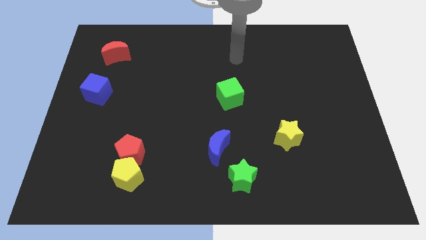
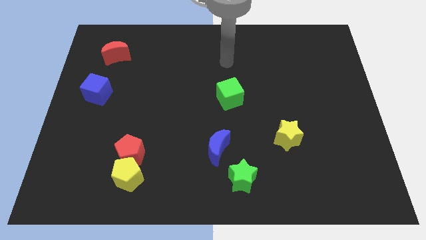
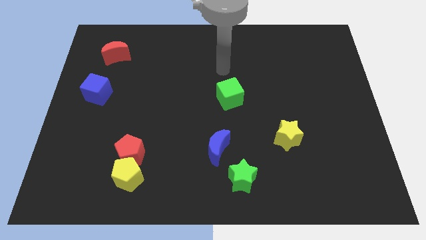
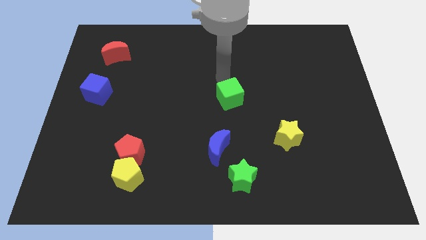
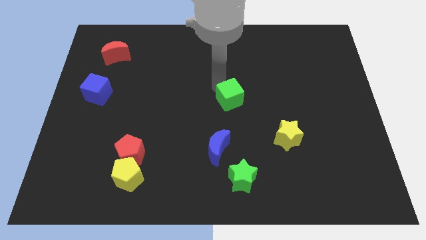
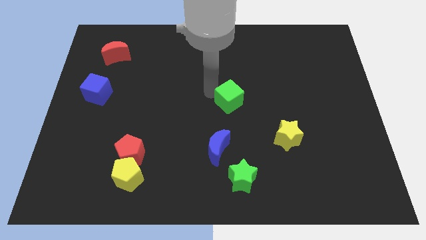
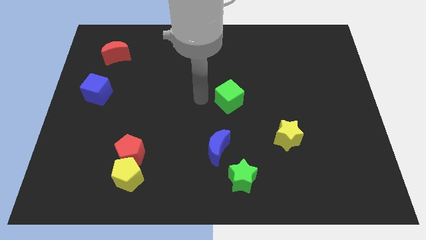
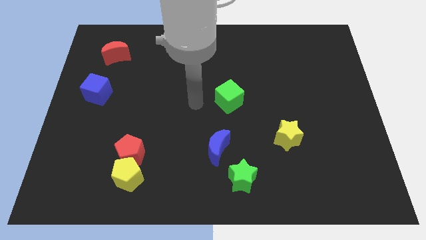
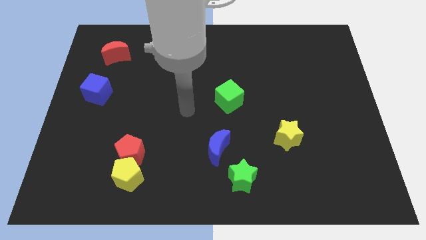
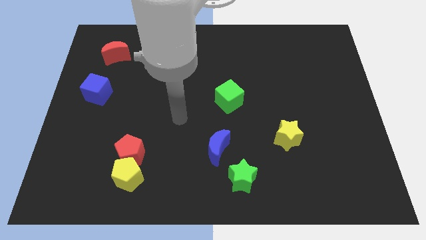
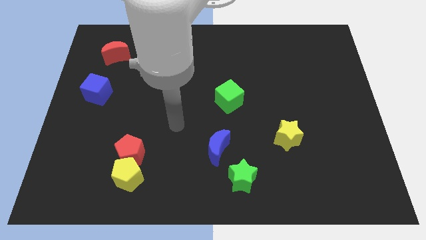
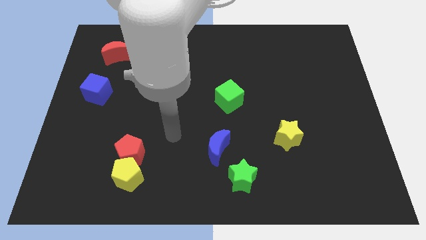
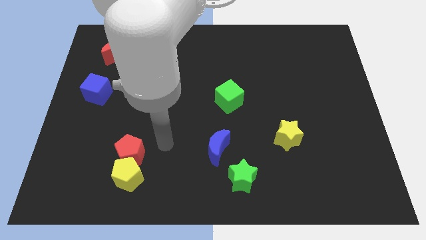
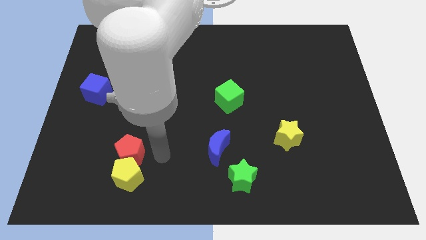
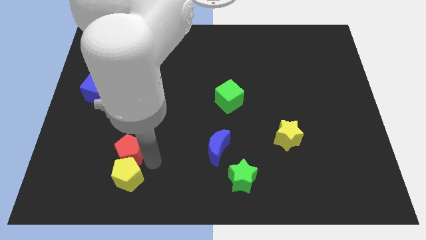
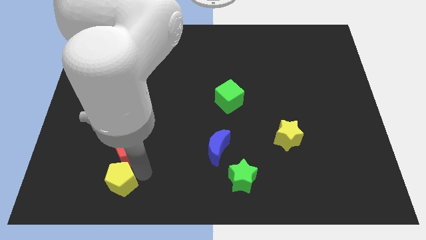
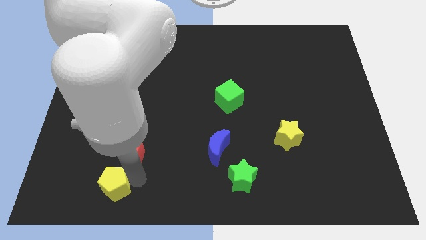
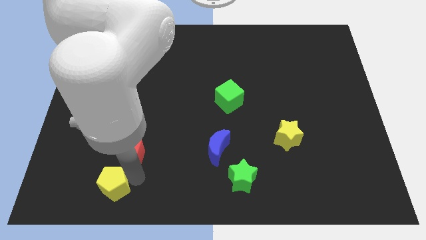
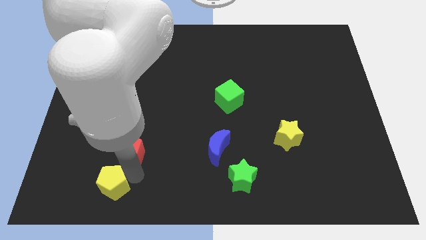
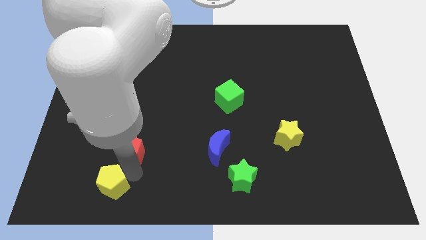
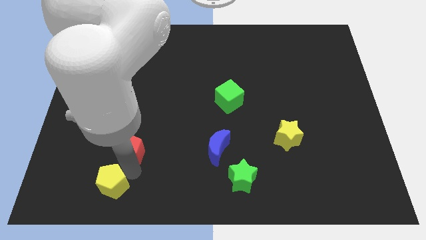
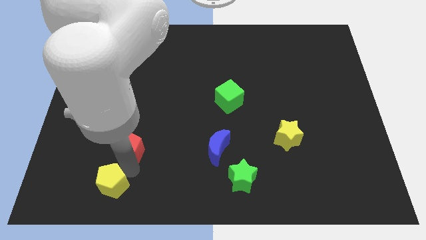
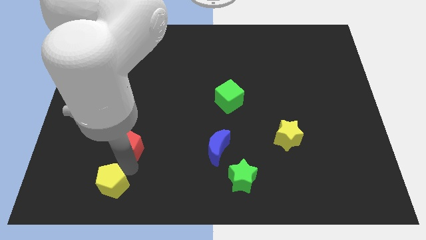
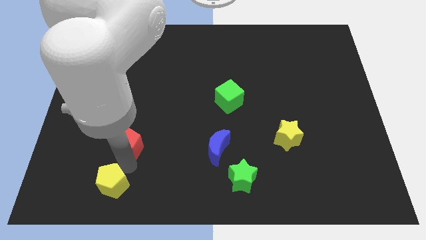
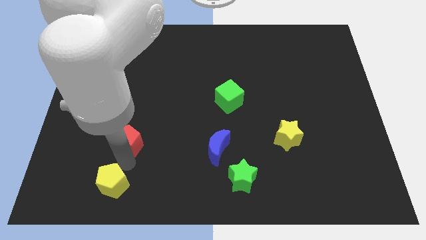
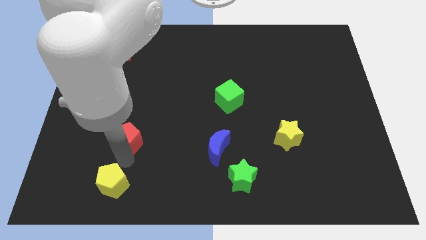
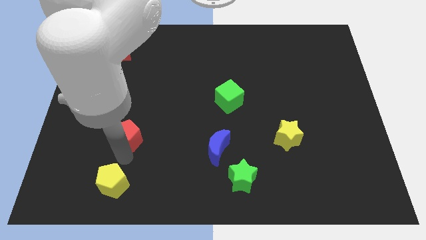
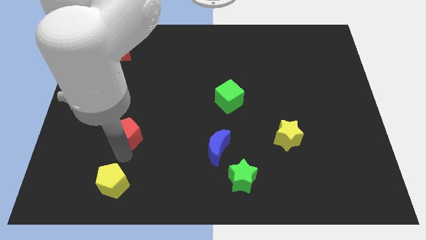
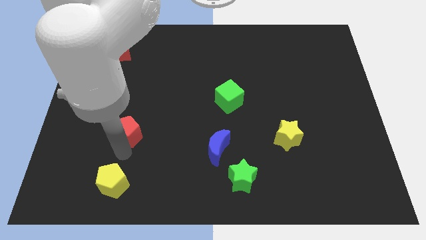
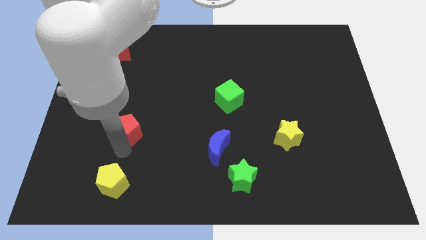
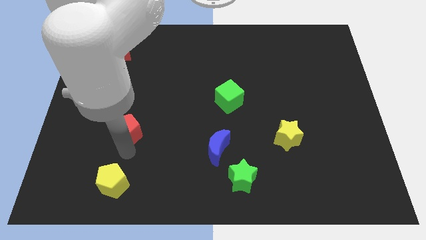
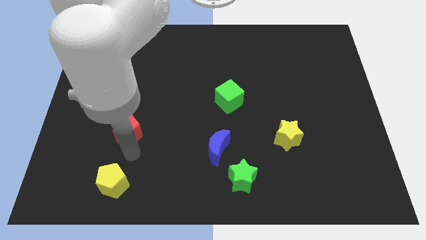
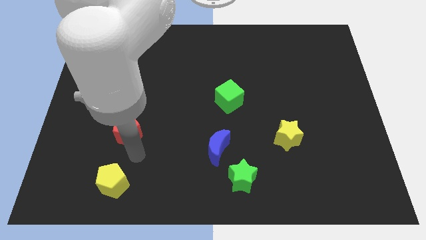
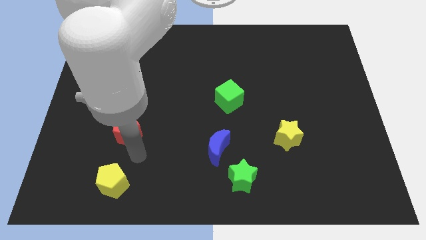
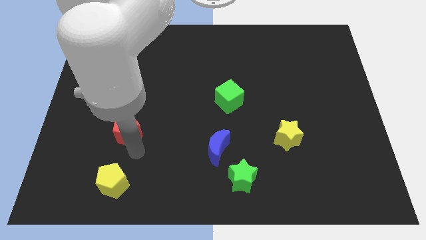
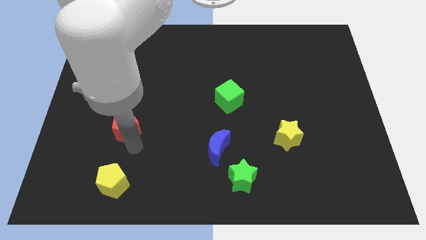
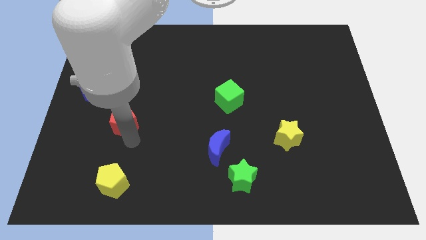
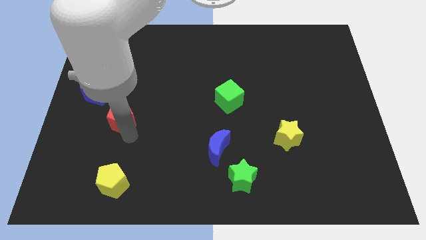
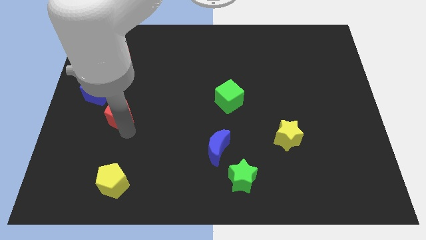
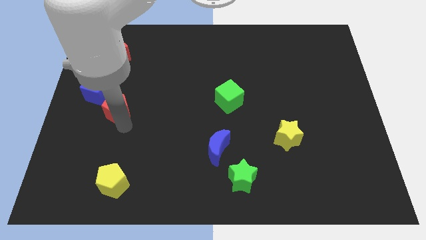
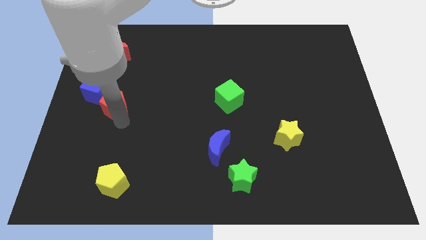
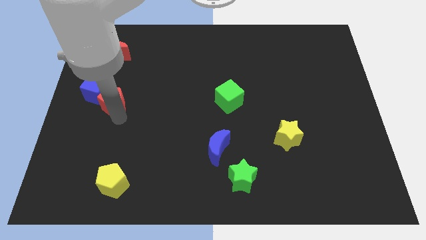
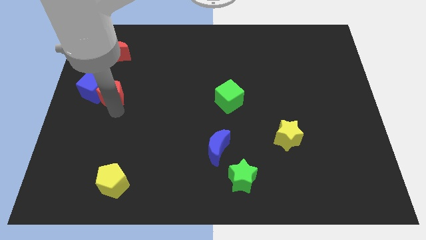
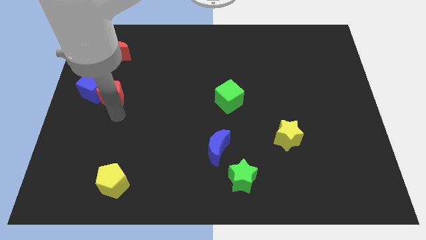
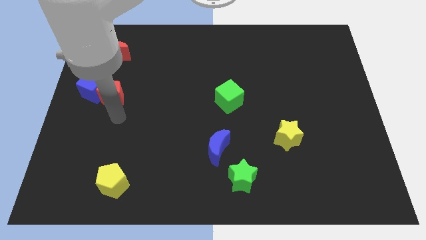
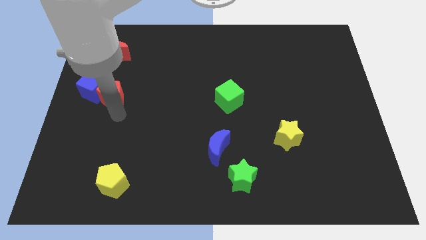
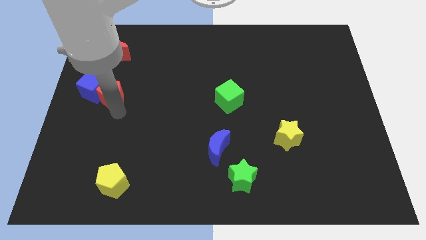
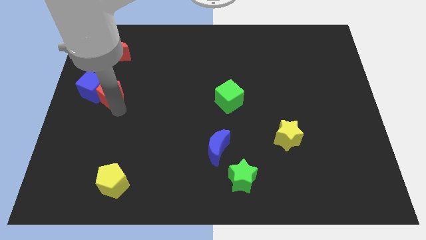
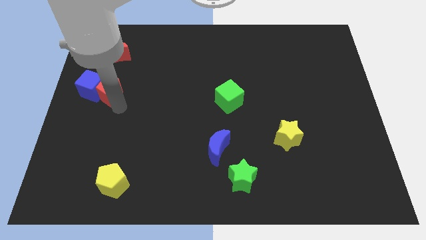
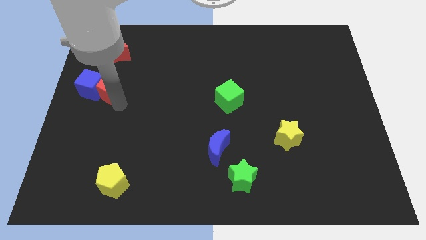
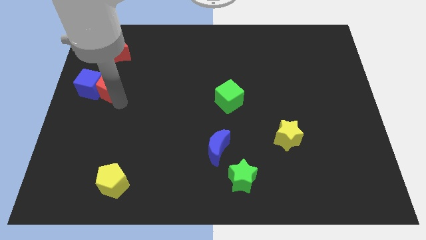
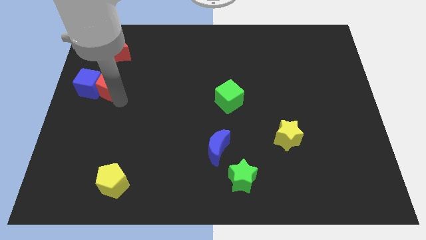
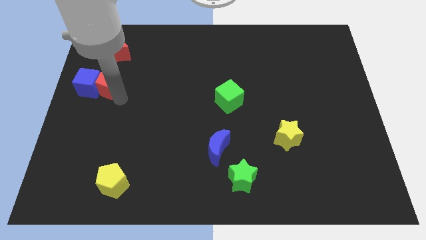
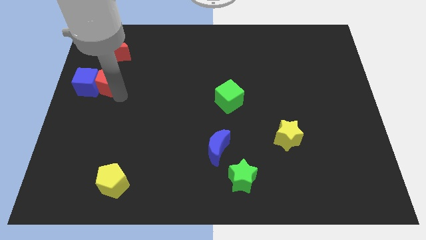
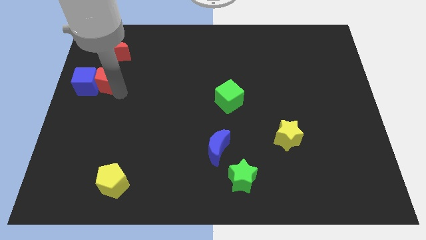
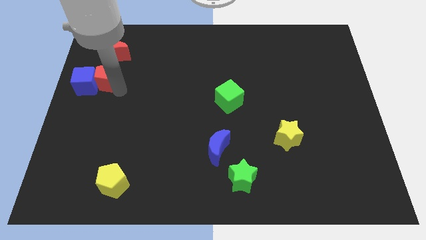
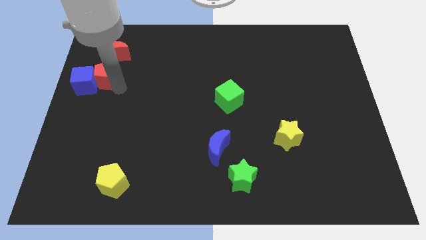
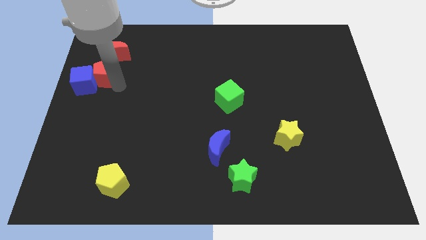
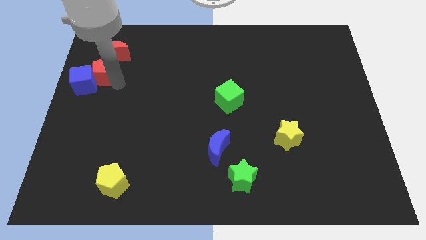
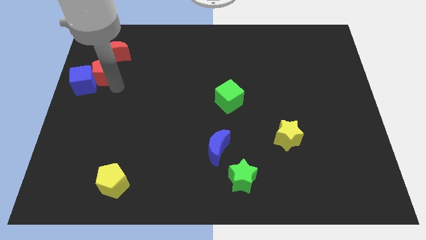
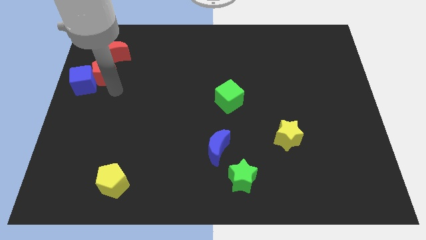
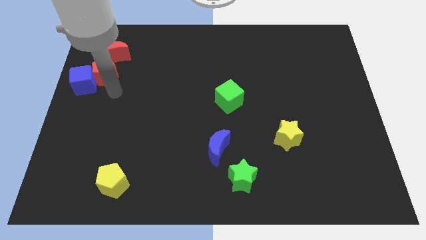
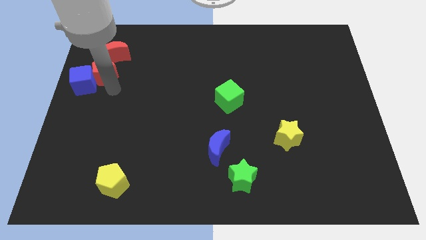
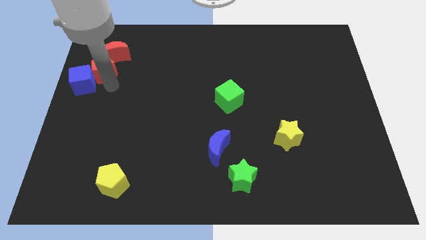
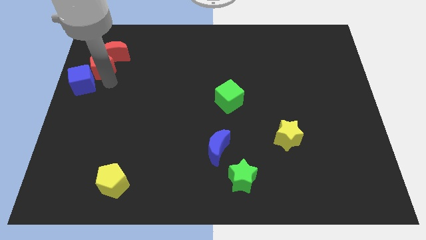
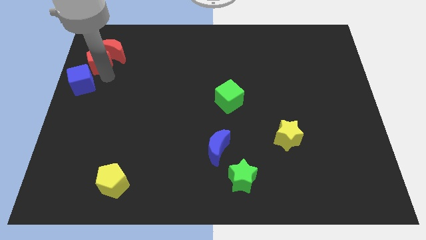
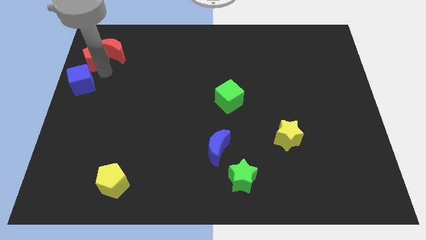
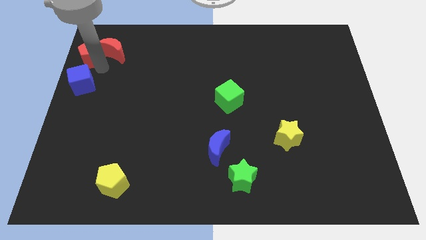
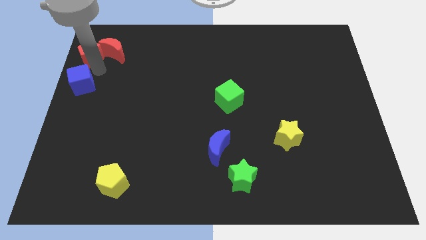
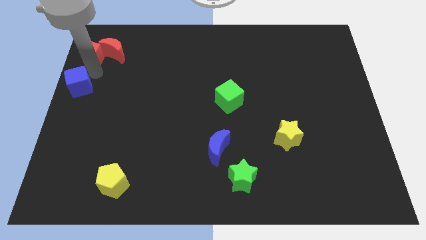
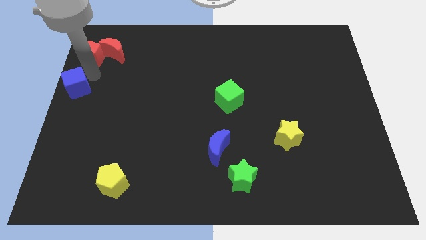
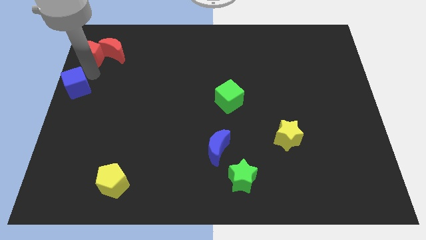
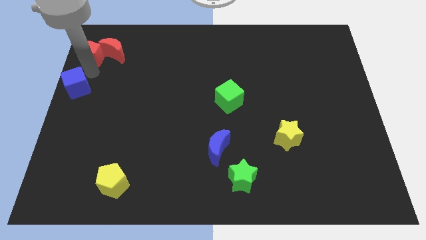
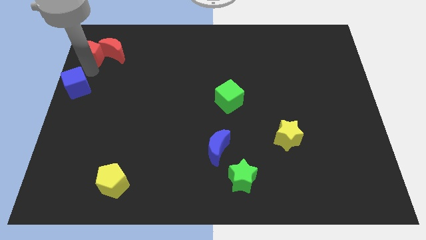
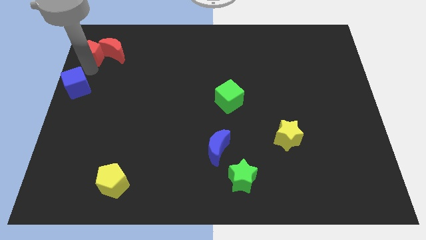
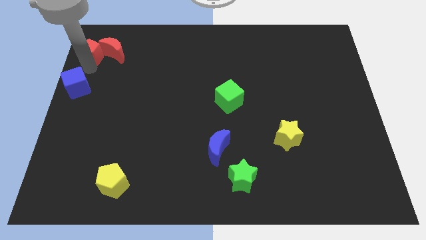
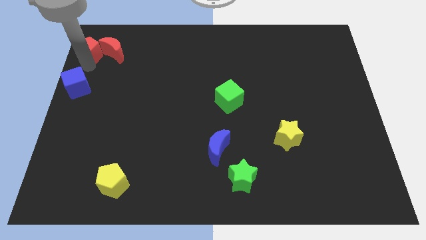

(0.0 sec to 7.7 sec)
put the red pentagon to the top left
